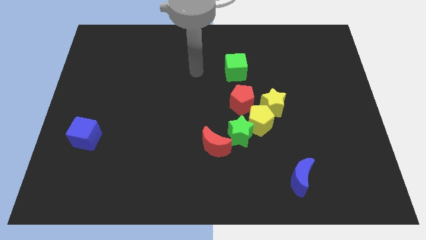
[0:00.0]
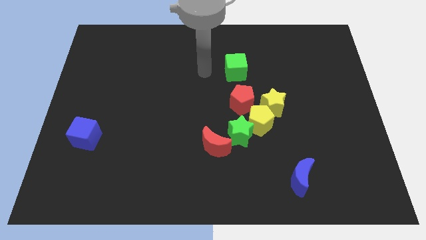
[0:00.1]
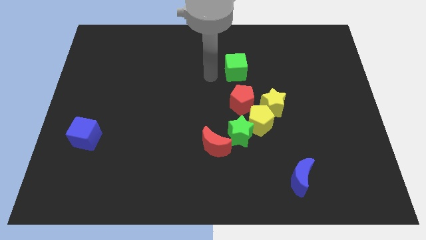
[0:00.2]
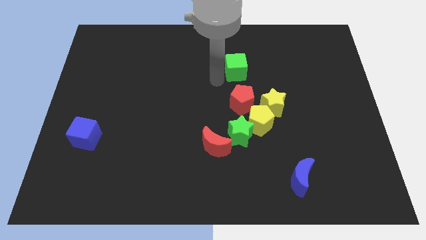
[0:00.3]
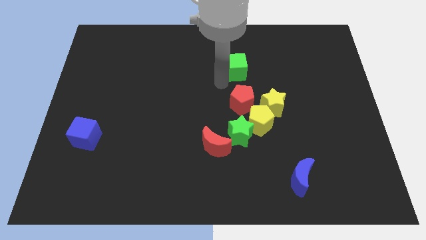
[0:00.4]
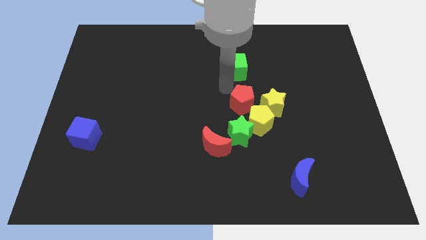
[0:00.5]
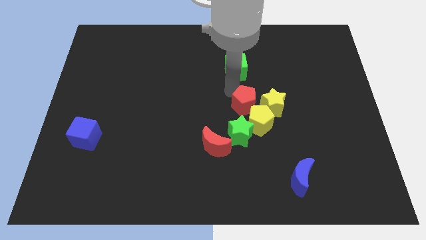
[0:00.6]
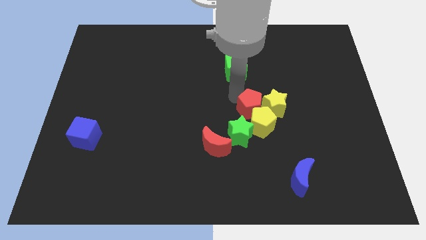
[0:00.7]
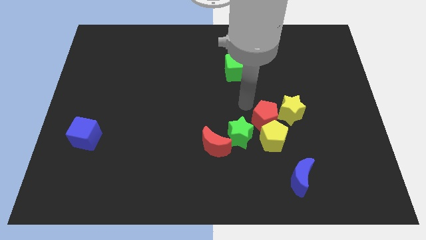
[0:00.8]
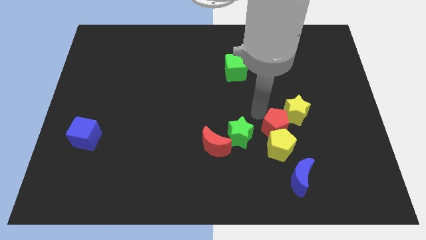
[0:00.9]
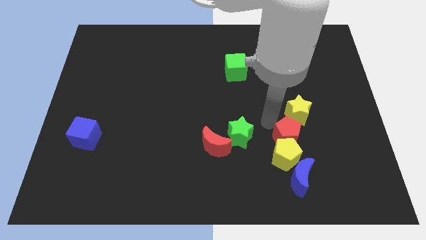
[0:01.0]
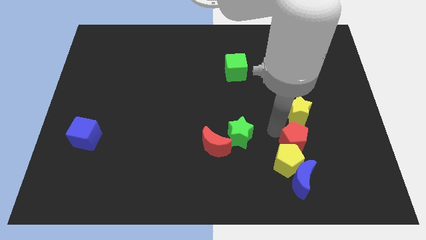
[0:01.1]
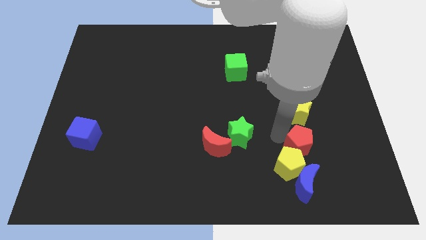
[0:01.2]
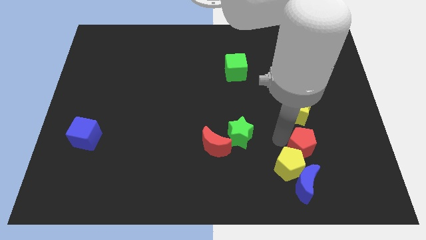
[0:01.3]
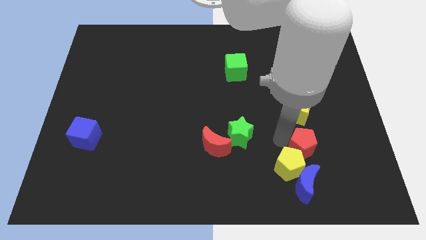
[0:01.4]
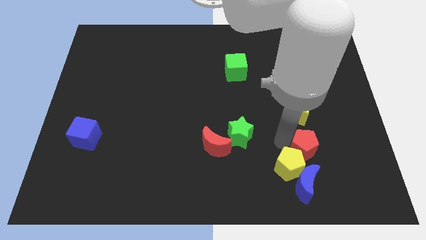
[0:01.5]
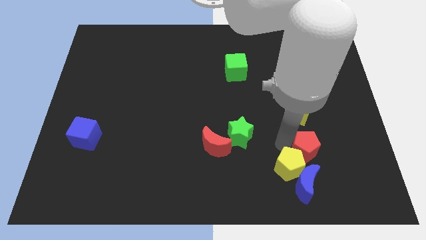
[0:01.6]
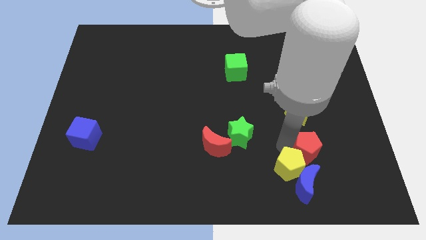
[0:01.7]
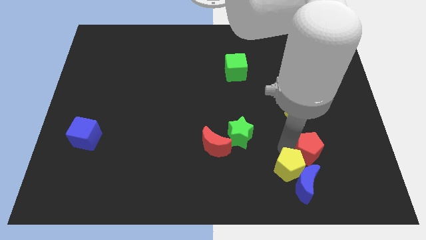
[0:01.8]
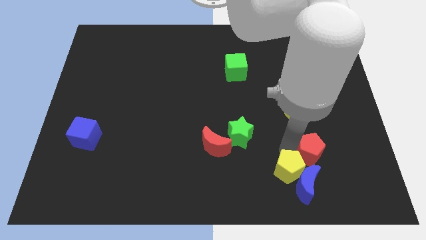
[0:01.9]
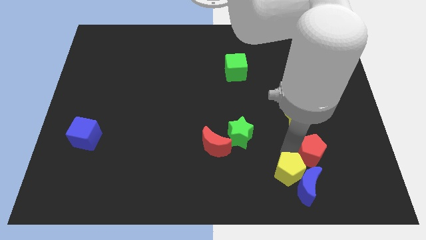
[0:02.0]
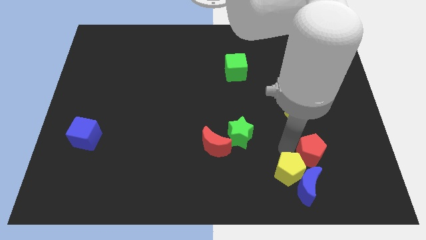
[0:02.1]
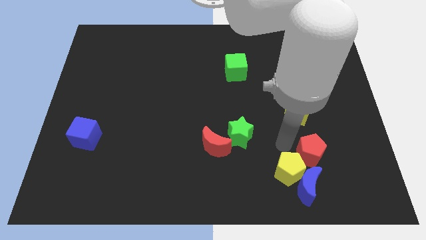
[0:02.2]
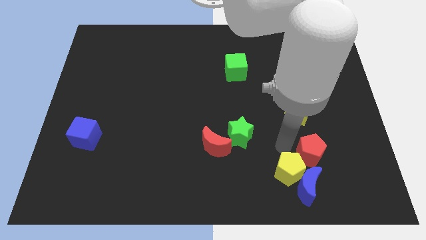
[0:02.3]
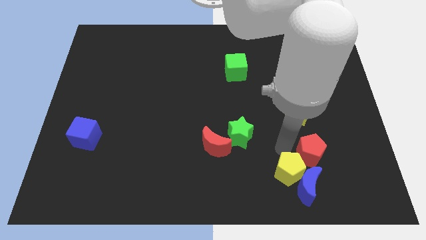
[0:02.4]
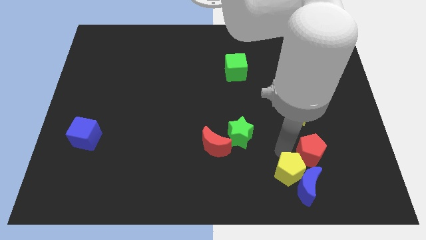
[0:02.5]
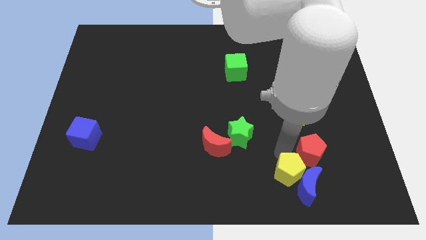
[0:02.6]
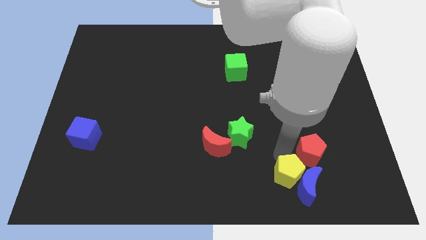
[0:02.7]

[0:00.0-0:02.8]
separate the yellow pentagon from the group of blocks

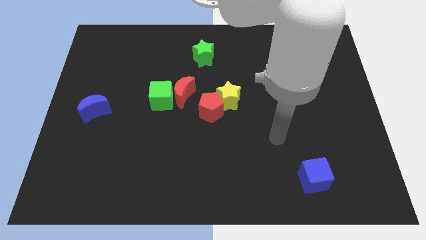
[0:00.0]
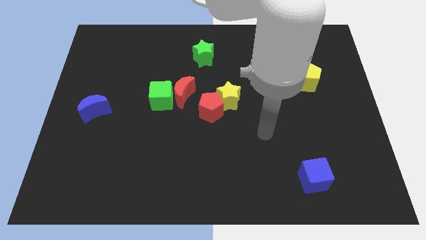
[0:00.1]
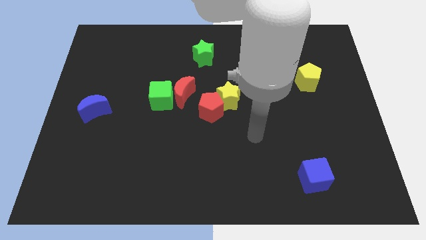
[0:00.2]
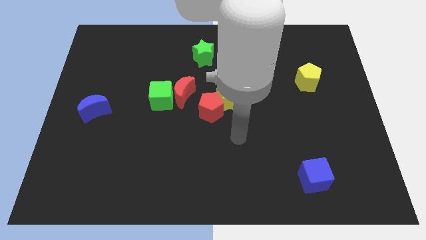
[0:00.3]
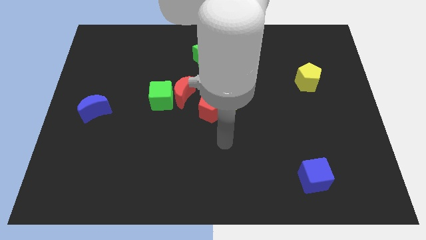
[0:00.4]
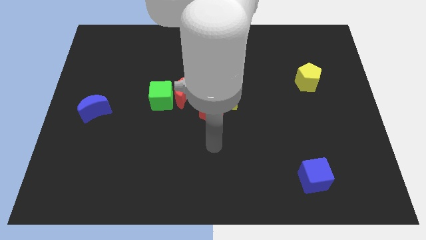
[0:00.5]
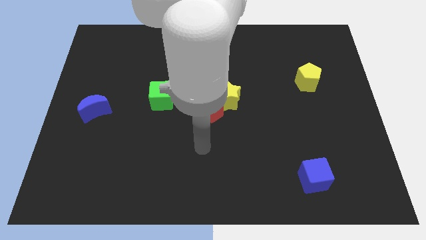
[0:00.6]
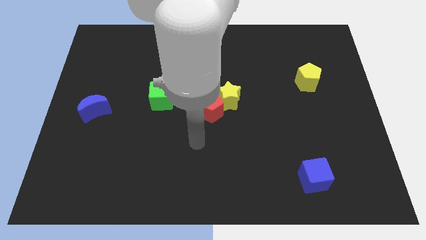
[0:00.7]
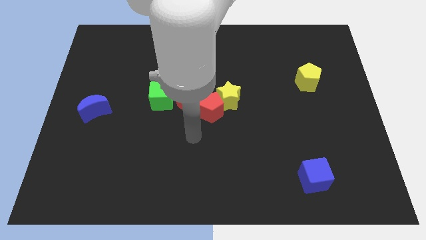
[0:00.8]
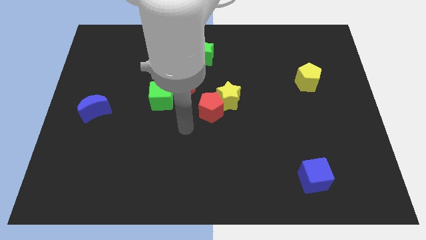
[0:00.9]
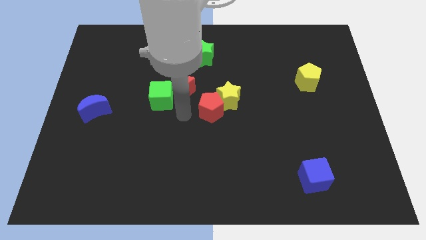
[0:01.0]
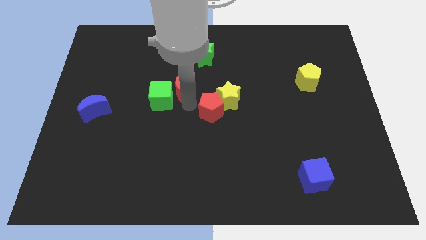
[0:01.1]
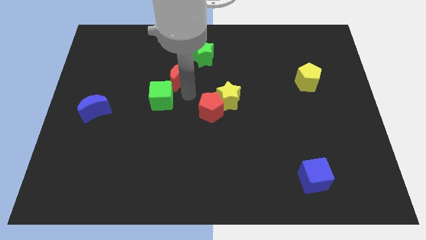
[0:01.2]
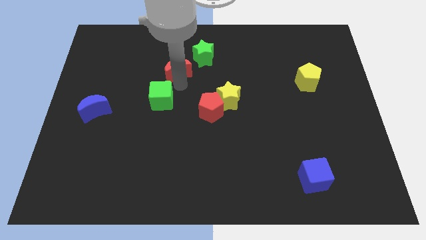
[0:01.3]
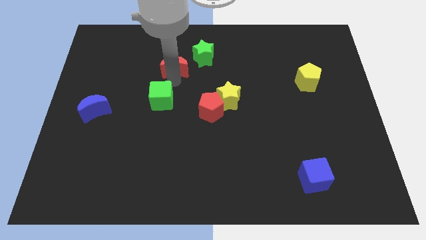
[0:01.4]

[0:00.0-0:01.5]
separate the green cube from the red moon

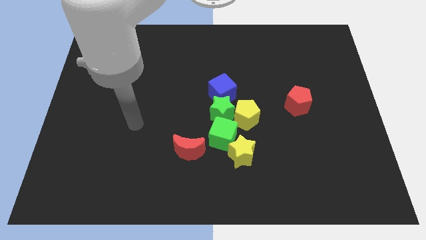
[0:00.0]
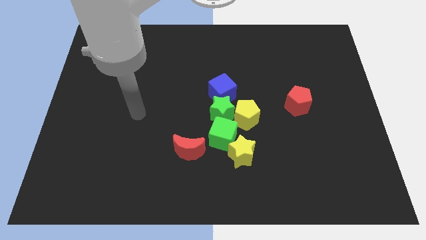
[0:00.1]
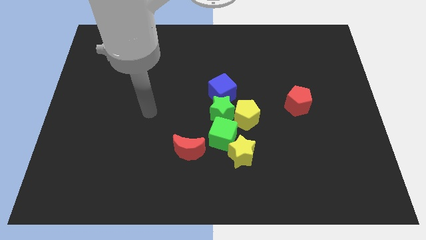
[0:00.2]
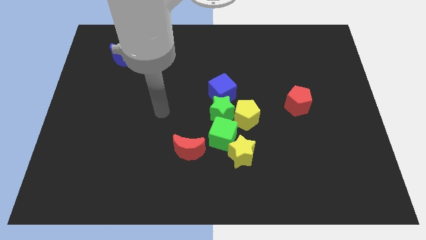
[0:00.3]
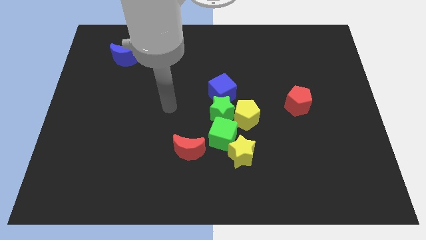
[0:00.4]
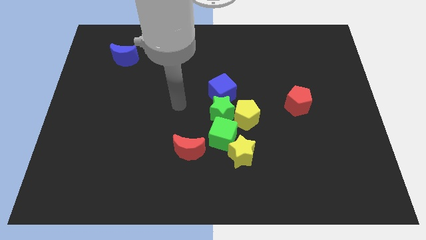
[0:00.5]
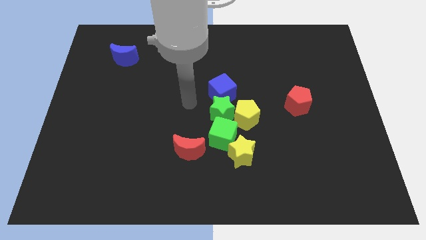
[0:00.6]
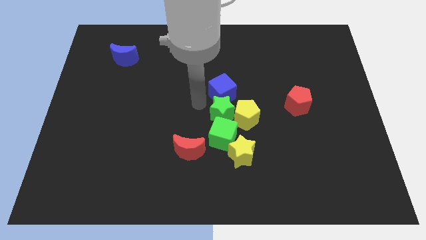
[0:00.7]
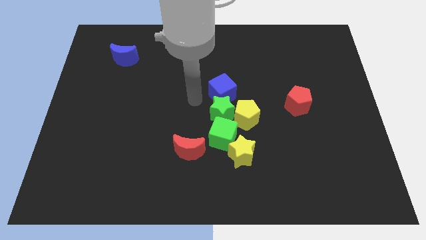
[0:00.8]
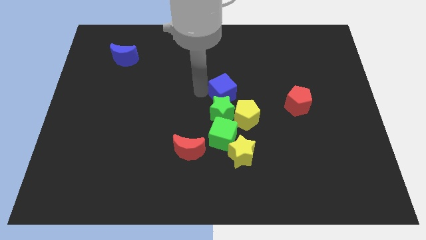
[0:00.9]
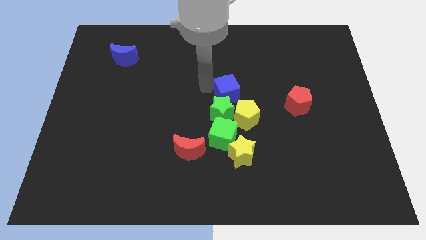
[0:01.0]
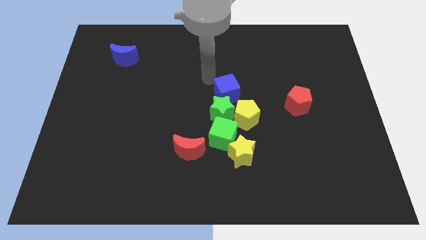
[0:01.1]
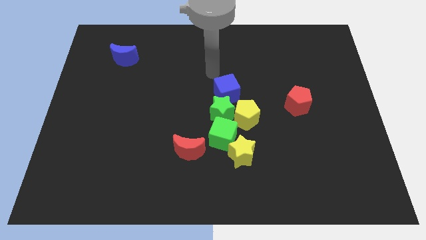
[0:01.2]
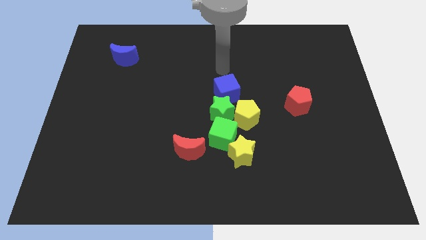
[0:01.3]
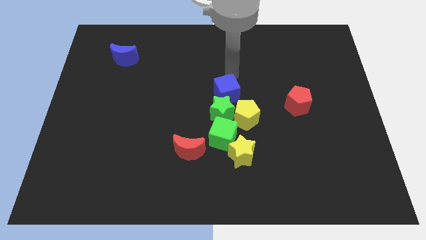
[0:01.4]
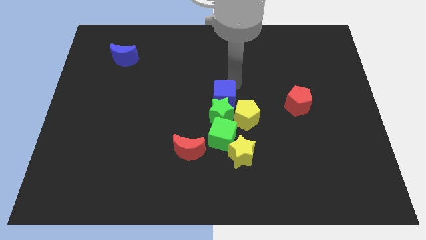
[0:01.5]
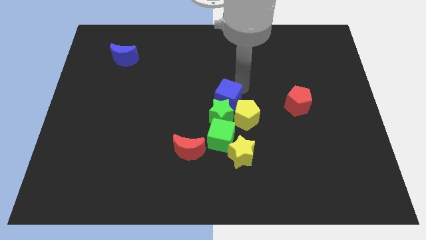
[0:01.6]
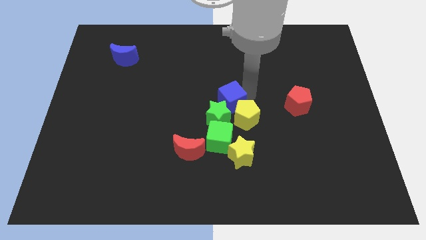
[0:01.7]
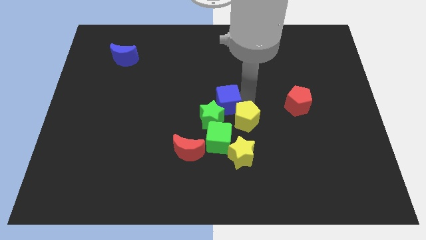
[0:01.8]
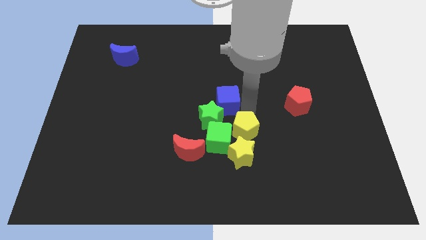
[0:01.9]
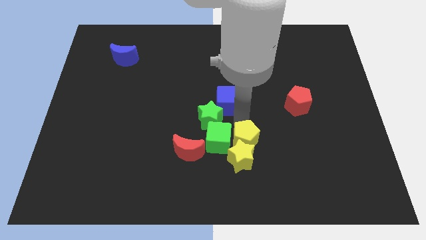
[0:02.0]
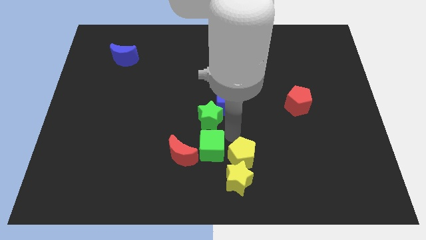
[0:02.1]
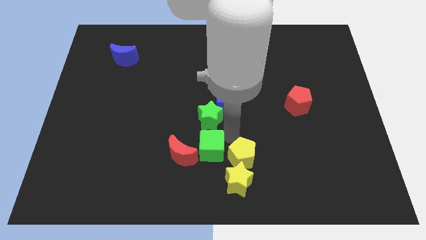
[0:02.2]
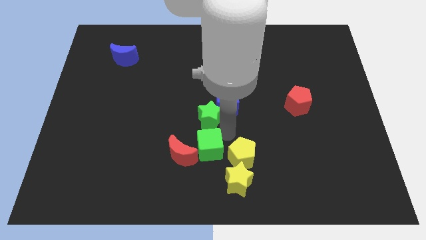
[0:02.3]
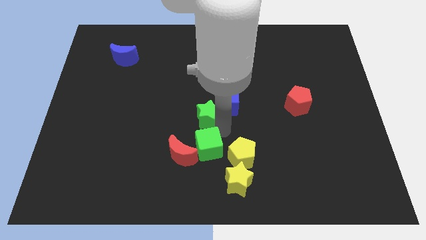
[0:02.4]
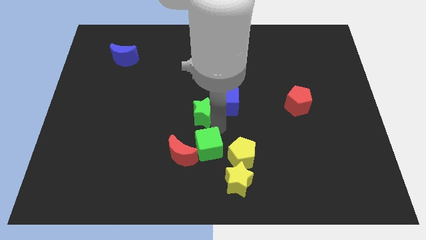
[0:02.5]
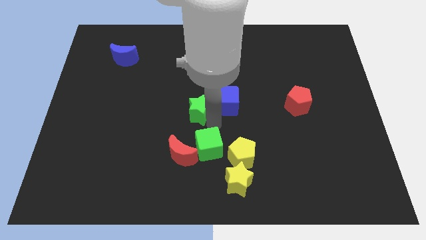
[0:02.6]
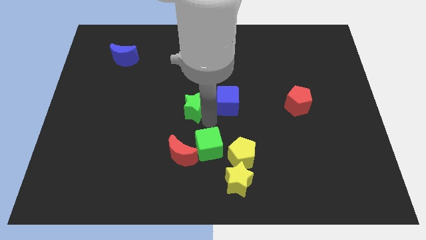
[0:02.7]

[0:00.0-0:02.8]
pull the green star apart from the yellow pentagon, blue cube, and green cube

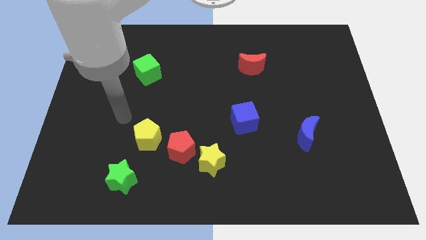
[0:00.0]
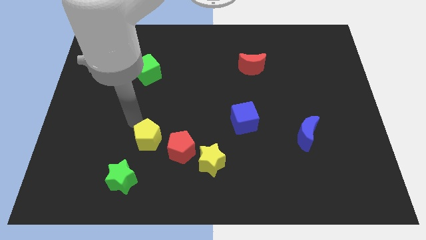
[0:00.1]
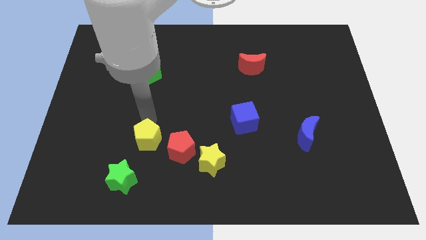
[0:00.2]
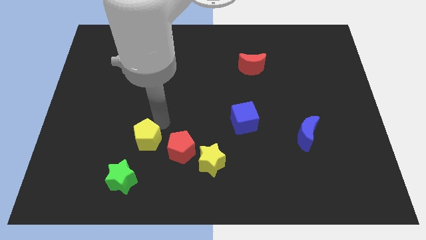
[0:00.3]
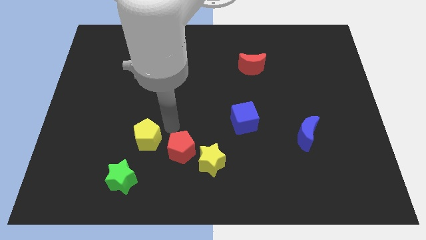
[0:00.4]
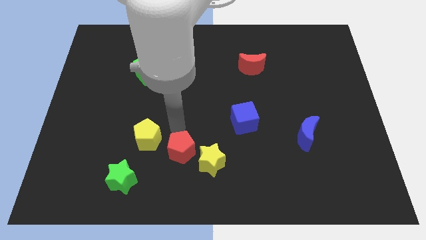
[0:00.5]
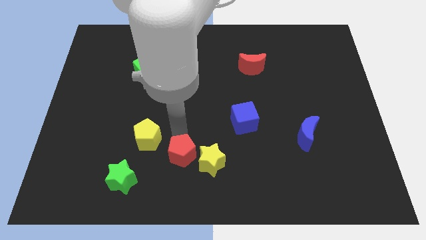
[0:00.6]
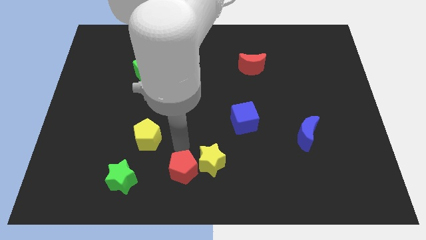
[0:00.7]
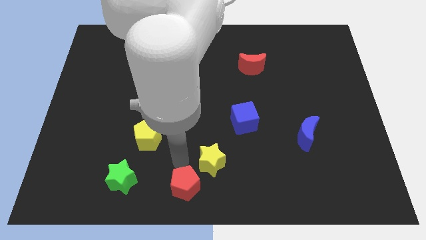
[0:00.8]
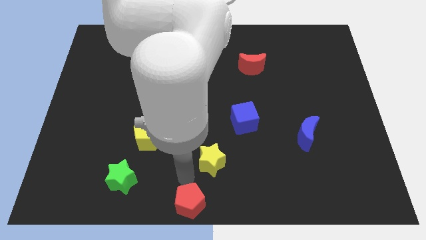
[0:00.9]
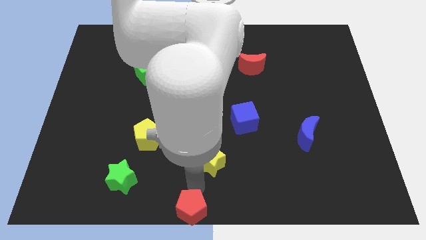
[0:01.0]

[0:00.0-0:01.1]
separate the yellow star from the red pentagon

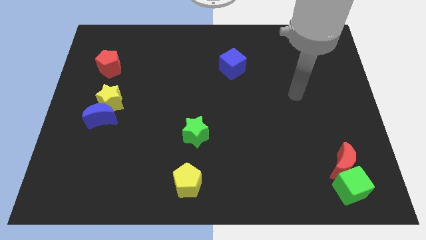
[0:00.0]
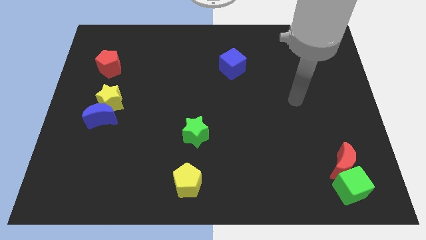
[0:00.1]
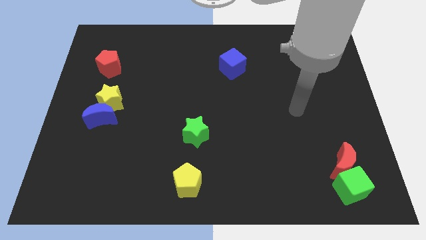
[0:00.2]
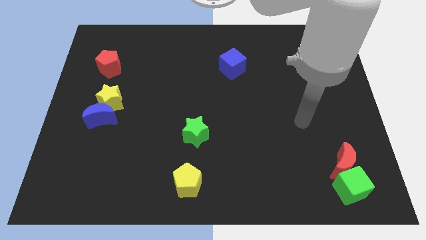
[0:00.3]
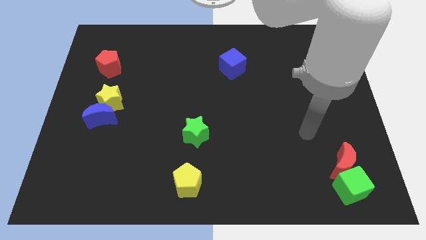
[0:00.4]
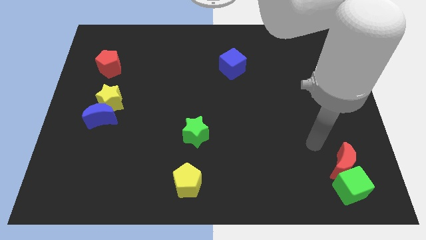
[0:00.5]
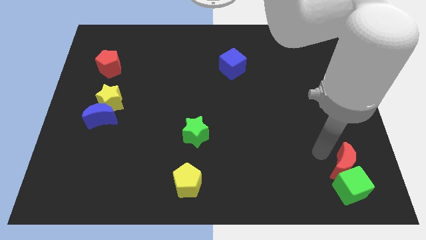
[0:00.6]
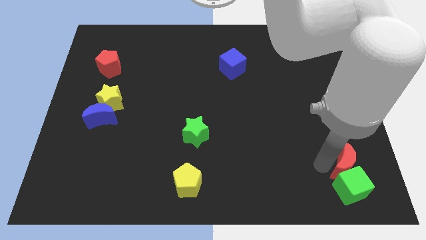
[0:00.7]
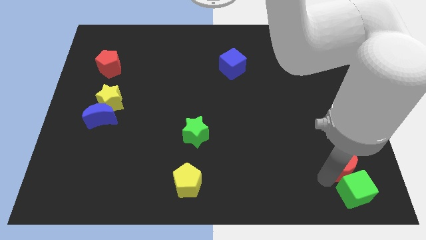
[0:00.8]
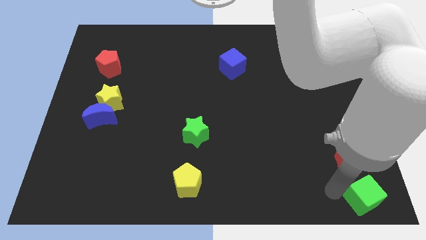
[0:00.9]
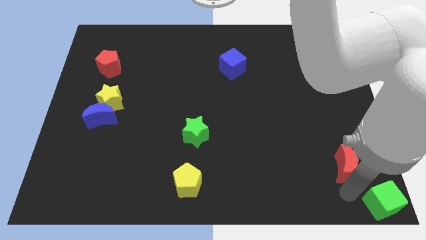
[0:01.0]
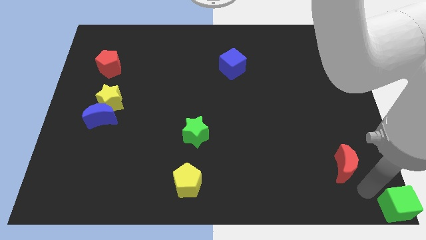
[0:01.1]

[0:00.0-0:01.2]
pull the red moon apart from the green cube
